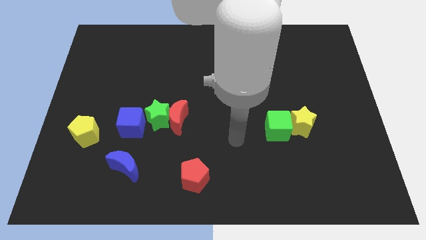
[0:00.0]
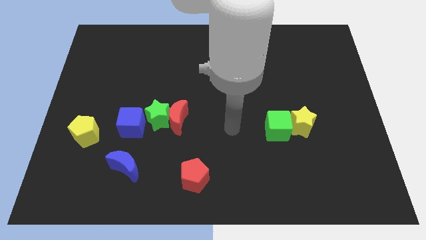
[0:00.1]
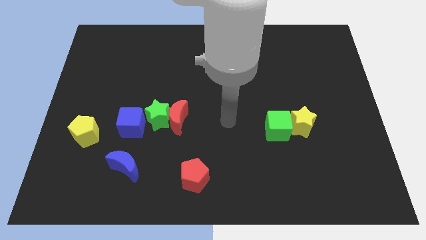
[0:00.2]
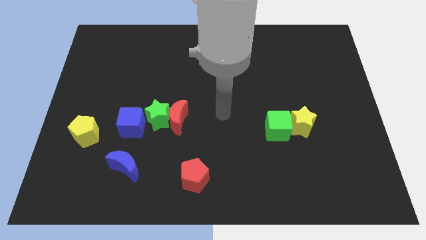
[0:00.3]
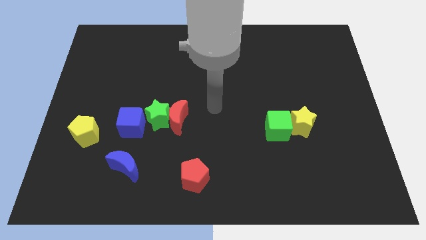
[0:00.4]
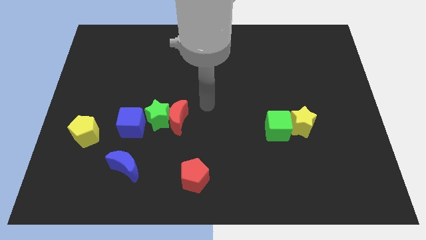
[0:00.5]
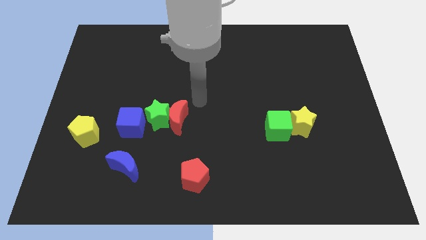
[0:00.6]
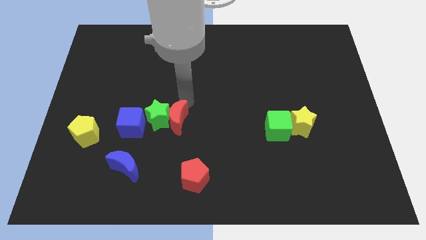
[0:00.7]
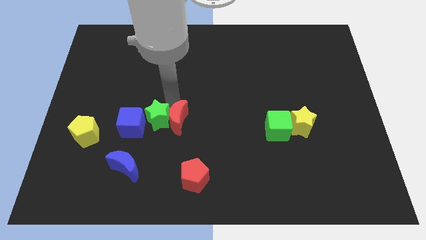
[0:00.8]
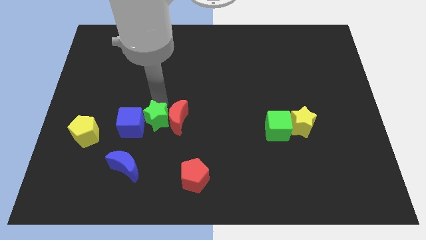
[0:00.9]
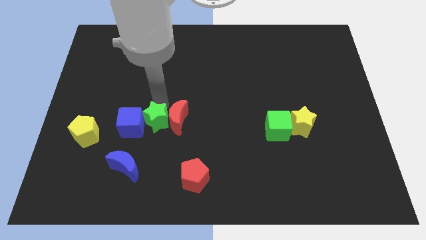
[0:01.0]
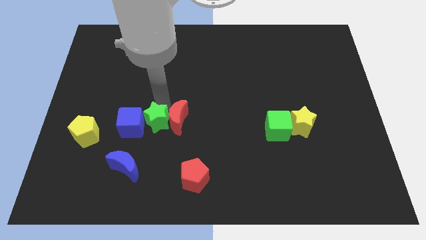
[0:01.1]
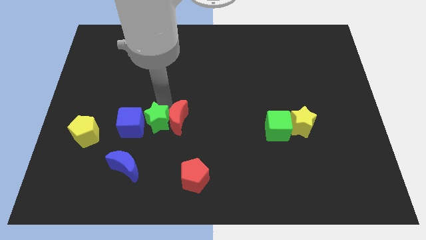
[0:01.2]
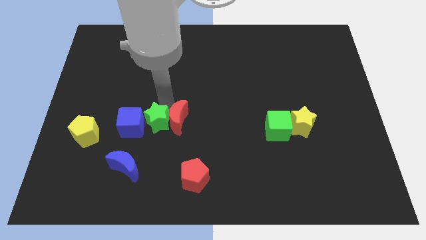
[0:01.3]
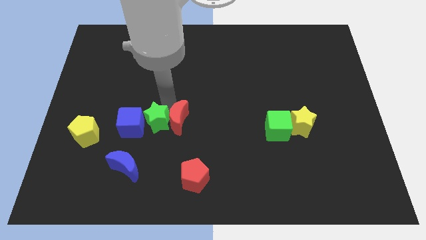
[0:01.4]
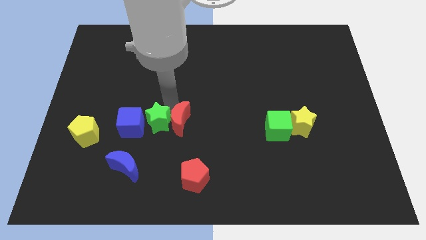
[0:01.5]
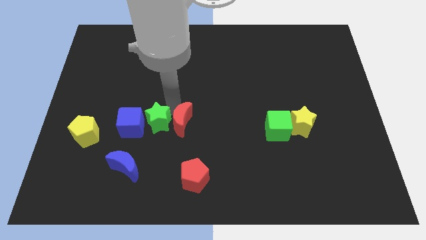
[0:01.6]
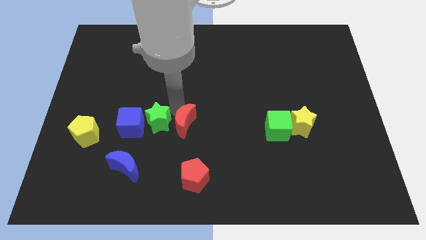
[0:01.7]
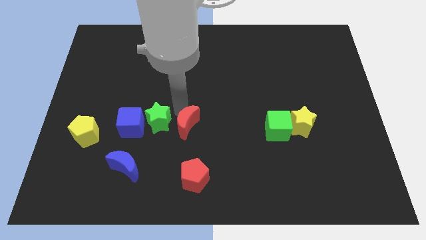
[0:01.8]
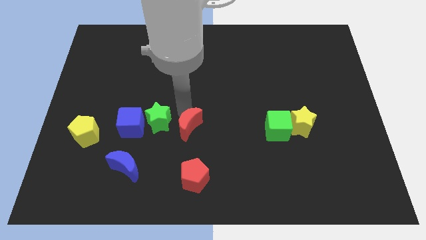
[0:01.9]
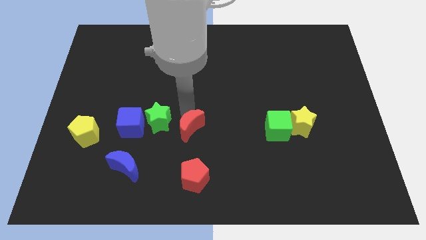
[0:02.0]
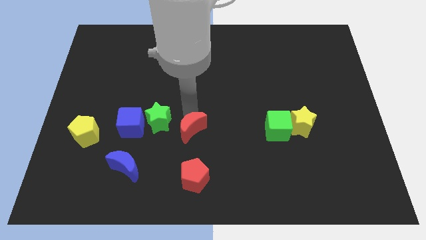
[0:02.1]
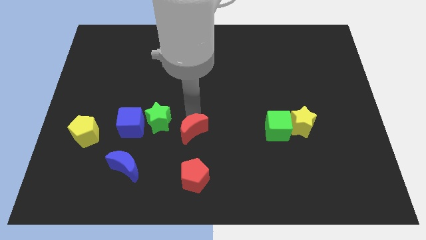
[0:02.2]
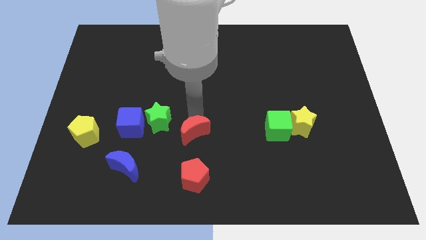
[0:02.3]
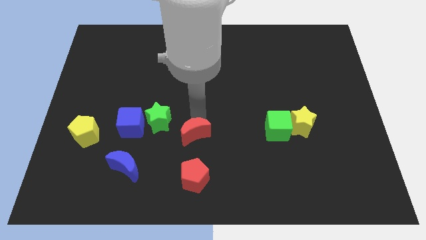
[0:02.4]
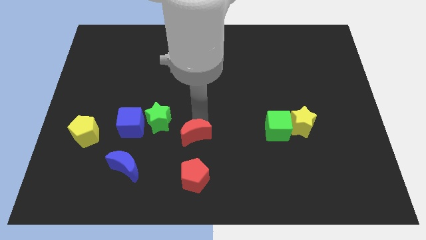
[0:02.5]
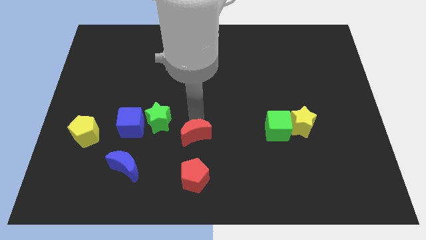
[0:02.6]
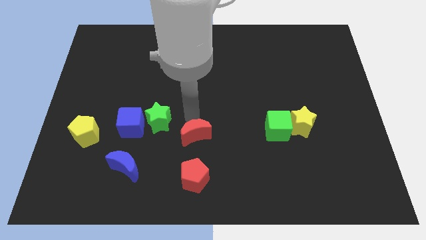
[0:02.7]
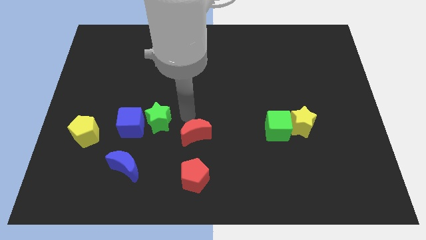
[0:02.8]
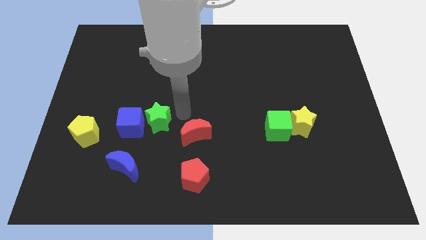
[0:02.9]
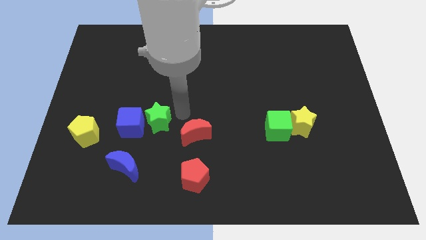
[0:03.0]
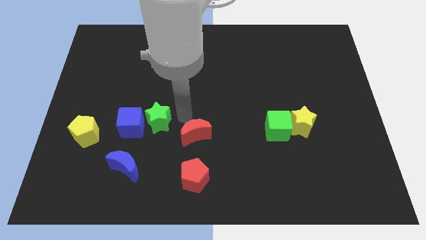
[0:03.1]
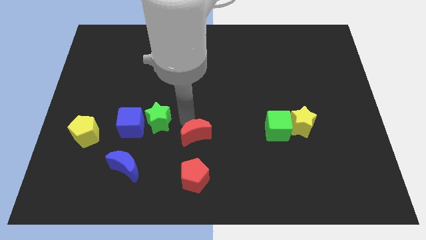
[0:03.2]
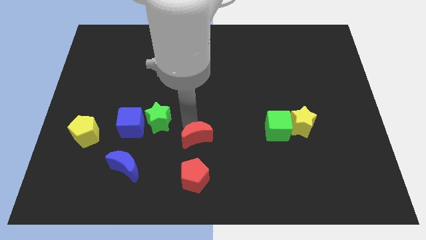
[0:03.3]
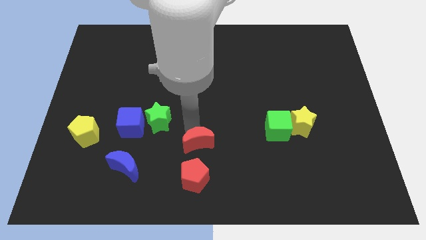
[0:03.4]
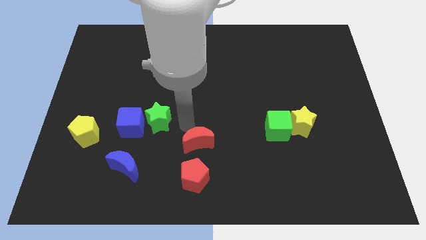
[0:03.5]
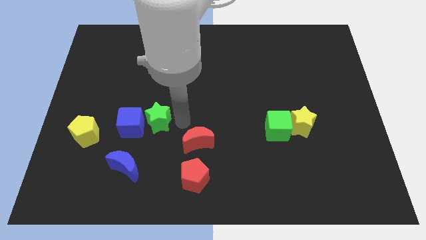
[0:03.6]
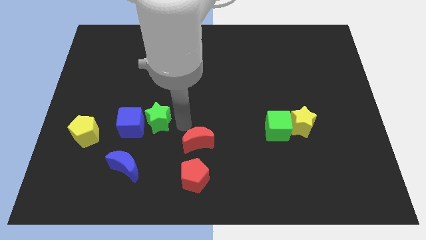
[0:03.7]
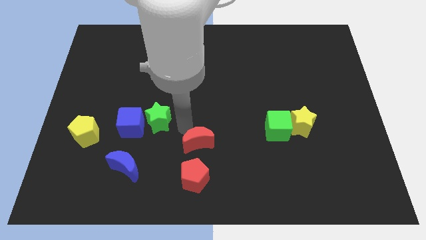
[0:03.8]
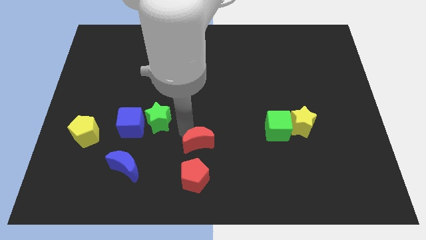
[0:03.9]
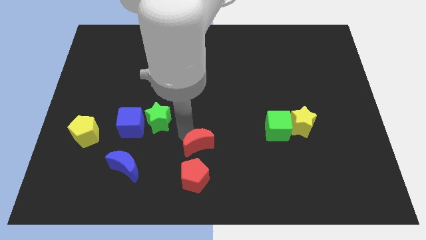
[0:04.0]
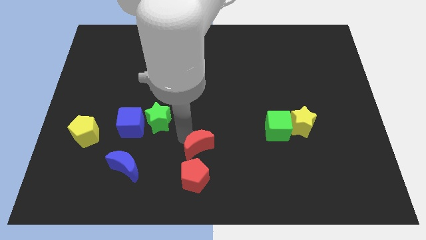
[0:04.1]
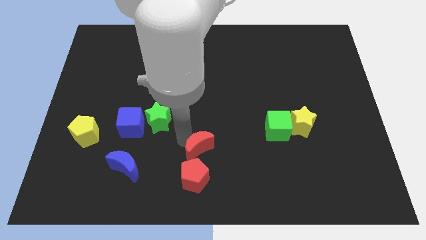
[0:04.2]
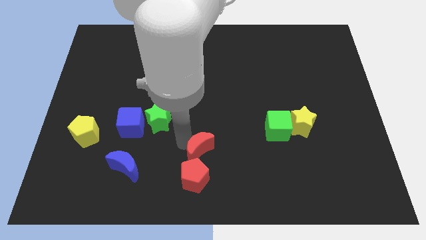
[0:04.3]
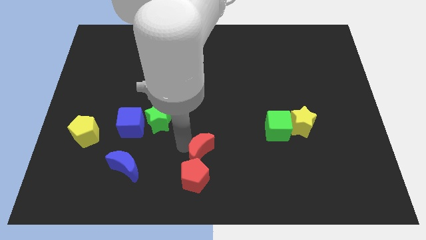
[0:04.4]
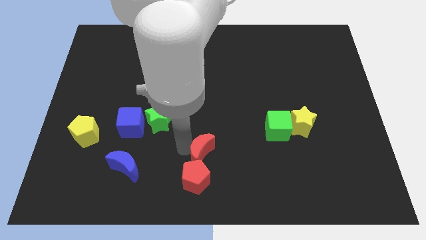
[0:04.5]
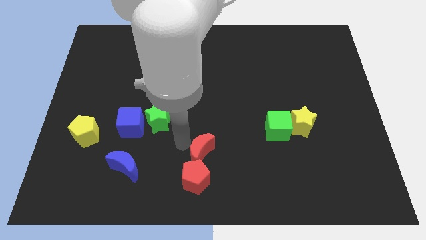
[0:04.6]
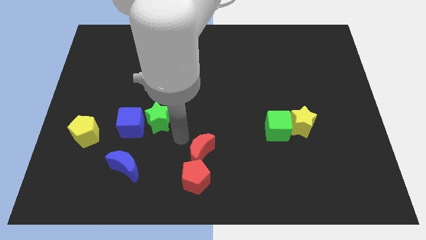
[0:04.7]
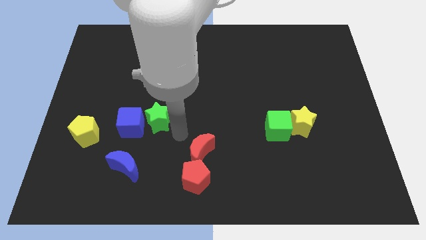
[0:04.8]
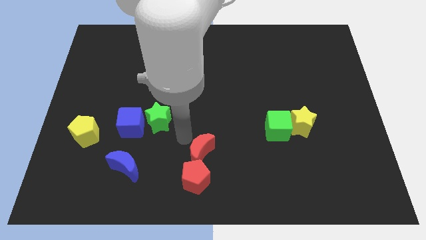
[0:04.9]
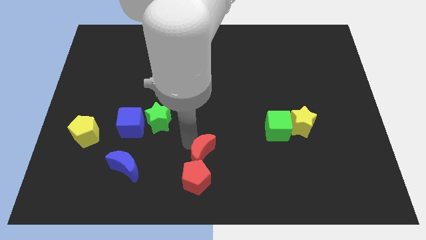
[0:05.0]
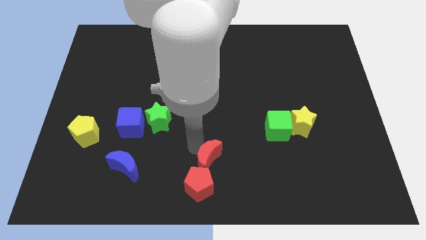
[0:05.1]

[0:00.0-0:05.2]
move the red moon to the bottom

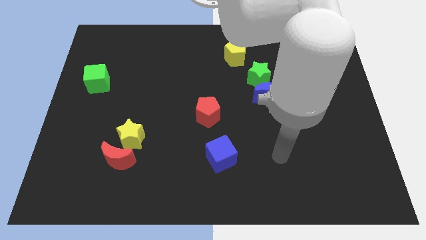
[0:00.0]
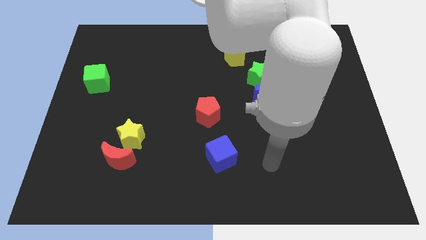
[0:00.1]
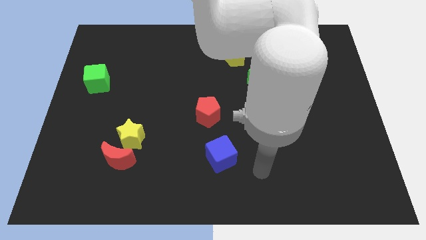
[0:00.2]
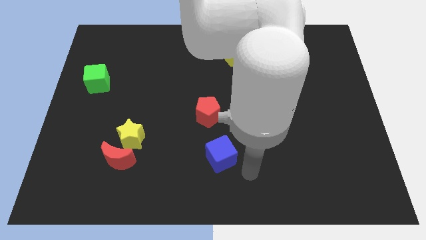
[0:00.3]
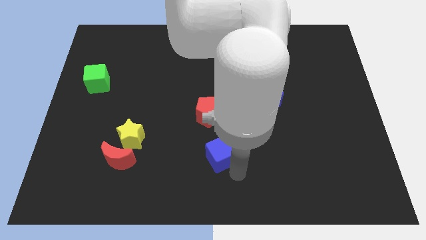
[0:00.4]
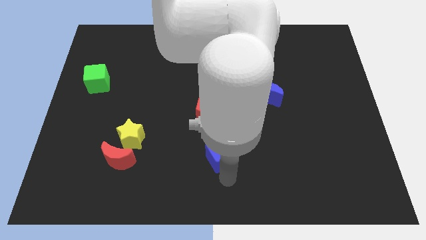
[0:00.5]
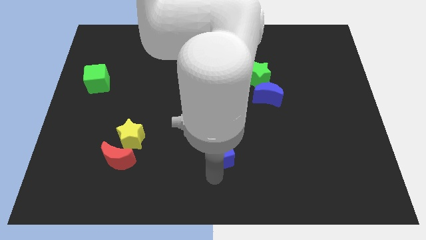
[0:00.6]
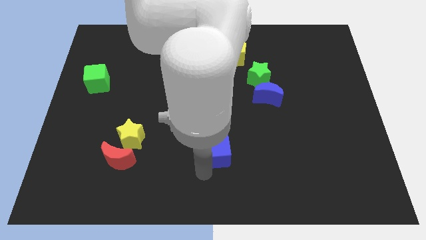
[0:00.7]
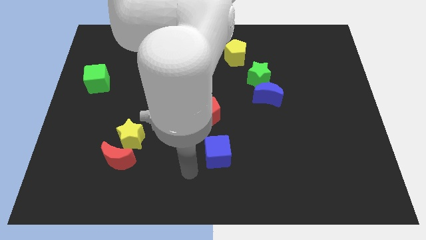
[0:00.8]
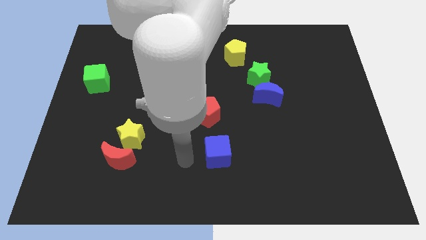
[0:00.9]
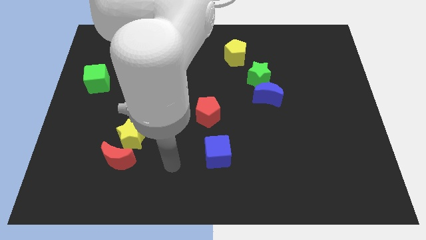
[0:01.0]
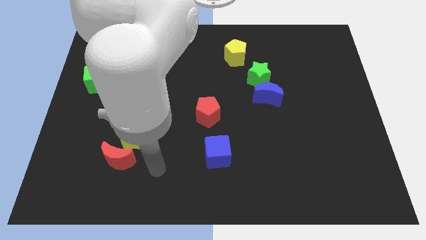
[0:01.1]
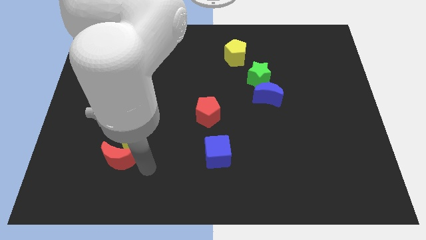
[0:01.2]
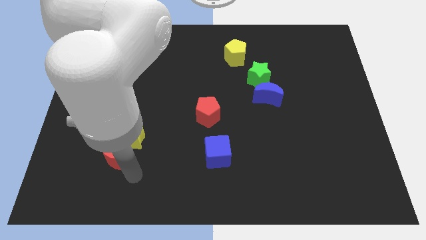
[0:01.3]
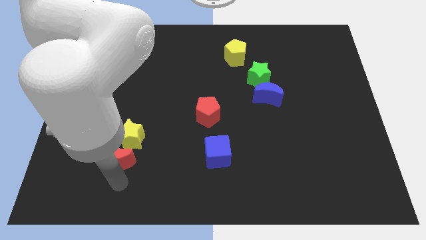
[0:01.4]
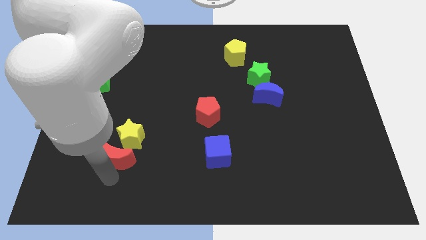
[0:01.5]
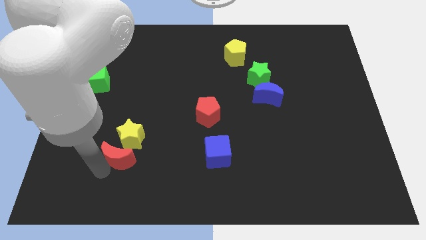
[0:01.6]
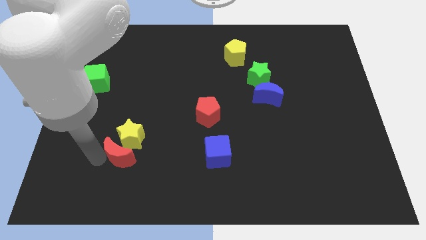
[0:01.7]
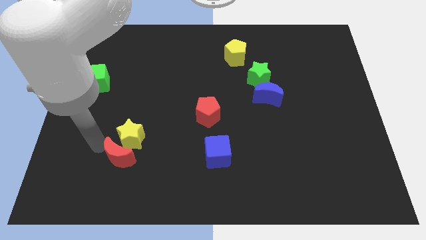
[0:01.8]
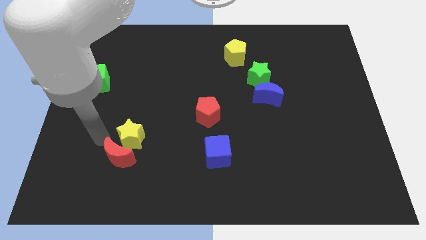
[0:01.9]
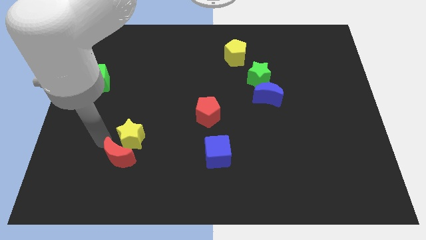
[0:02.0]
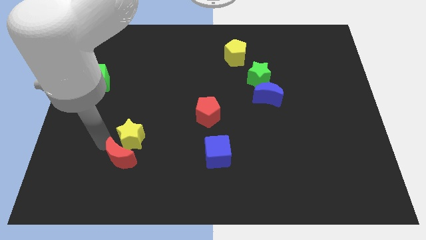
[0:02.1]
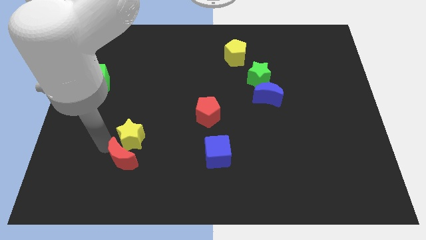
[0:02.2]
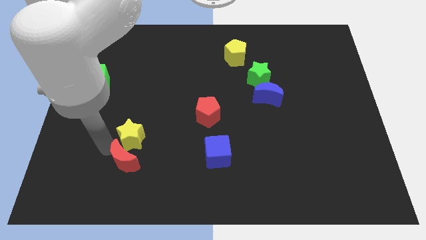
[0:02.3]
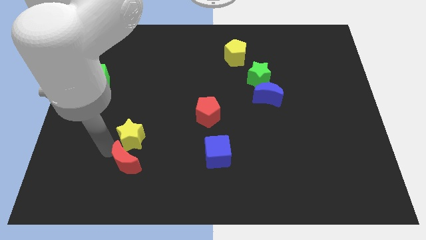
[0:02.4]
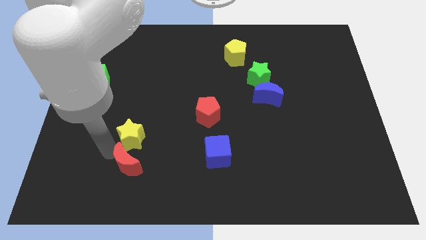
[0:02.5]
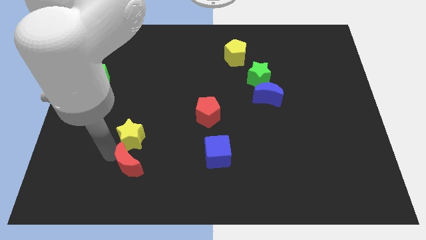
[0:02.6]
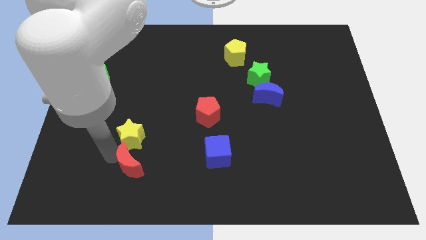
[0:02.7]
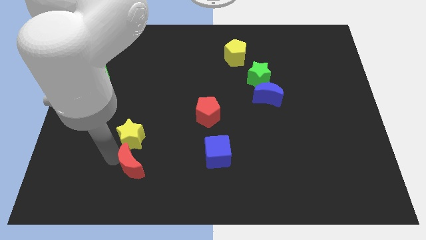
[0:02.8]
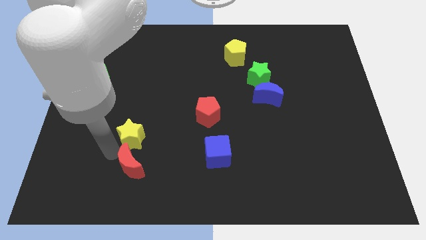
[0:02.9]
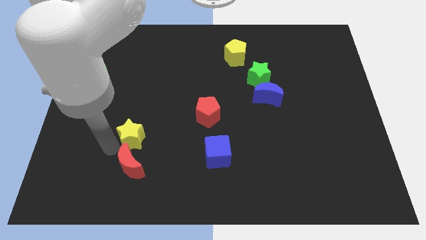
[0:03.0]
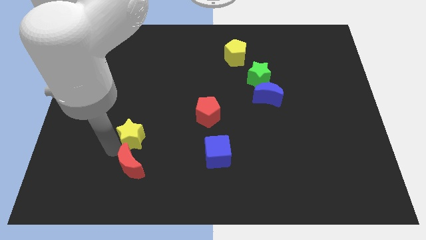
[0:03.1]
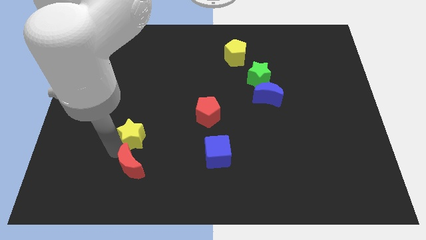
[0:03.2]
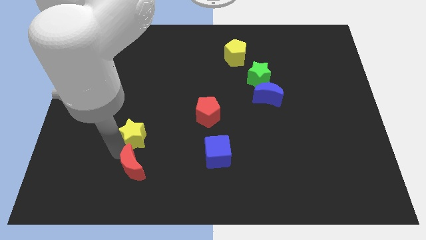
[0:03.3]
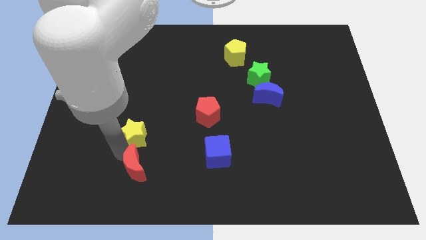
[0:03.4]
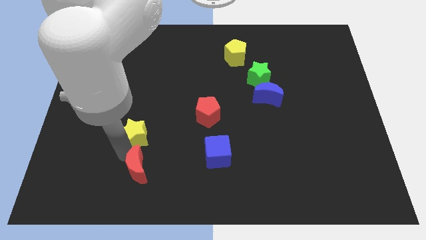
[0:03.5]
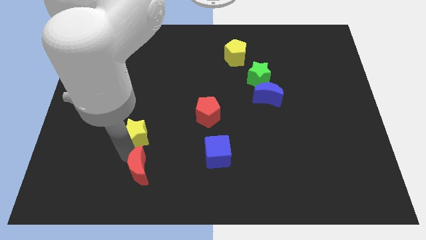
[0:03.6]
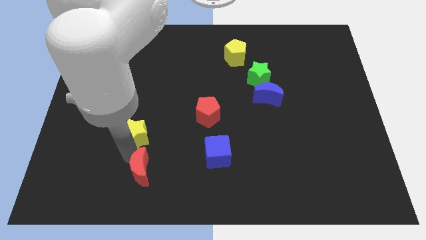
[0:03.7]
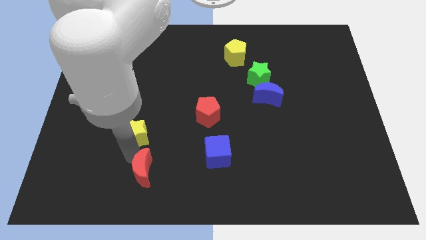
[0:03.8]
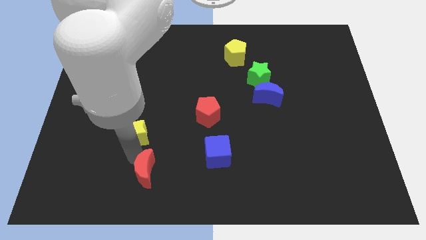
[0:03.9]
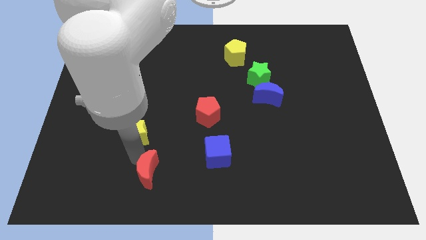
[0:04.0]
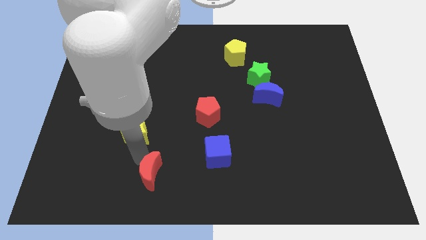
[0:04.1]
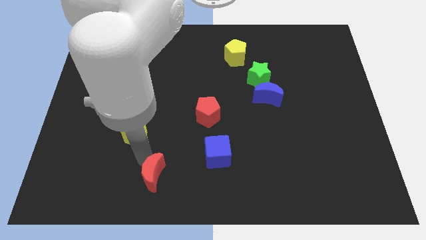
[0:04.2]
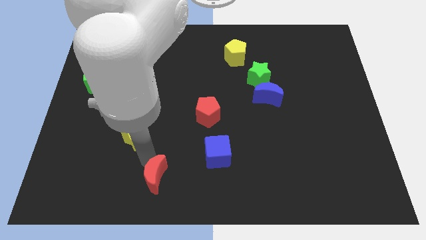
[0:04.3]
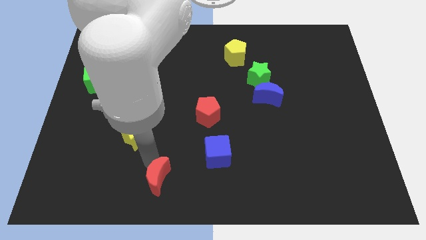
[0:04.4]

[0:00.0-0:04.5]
slide the red moon to the bottom side
